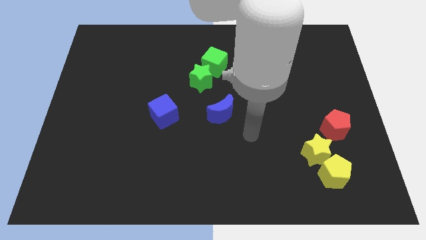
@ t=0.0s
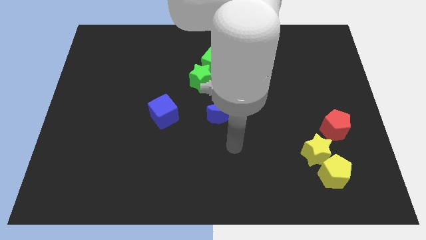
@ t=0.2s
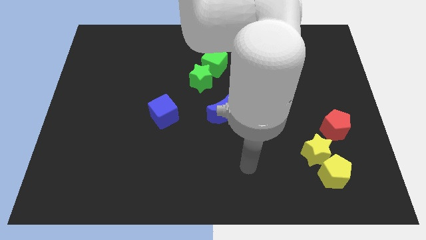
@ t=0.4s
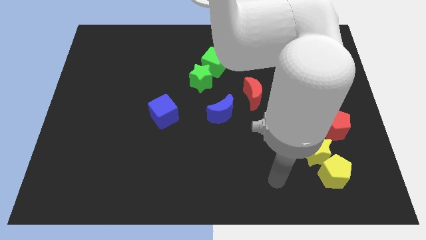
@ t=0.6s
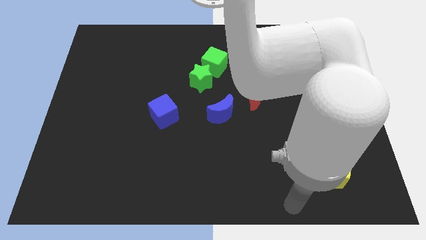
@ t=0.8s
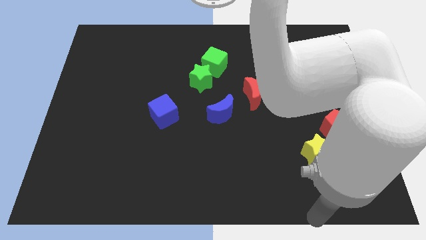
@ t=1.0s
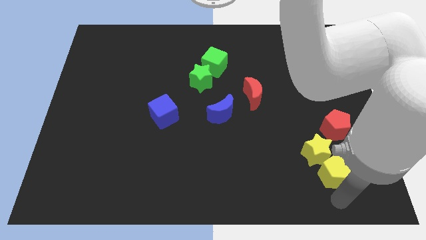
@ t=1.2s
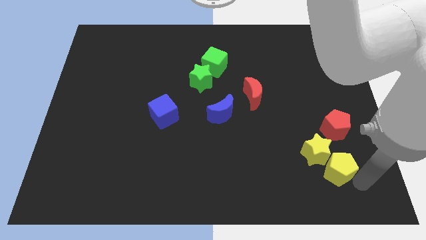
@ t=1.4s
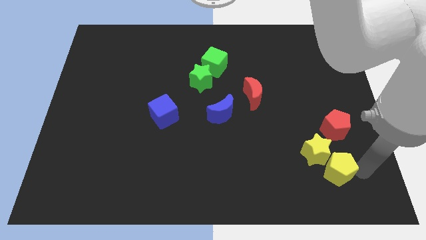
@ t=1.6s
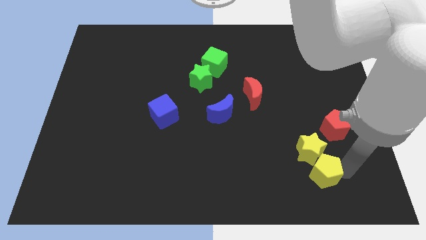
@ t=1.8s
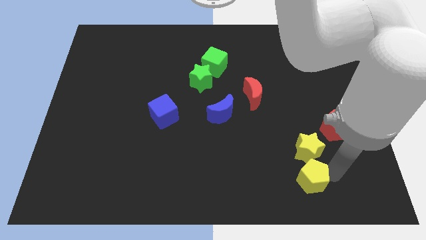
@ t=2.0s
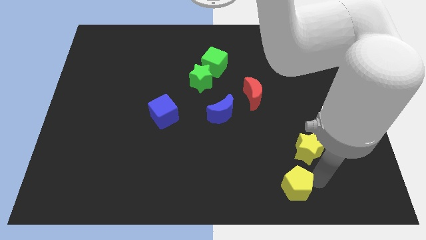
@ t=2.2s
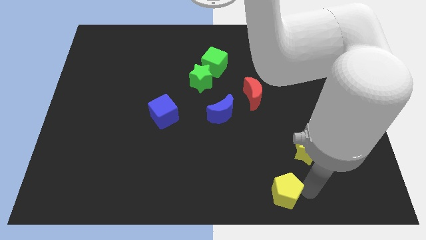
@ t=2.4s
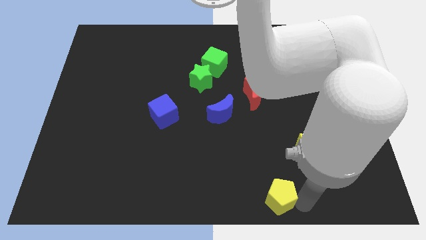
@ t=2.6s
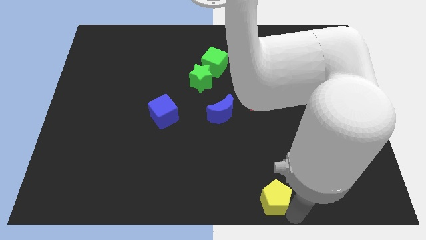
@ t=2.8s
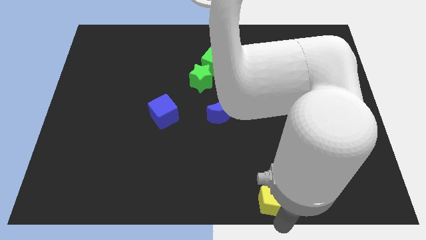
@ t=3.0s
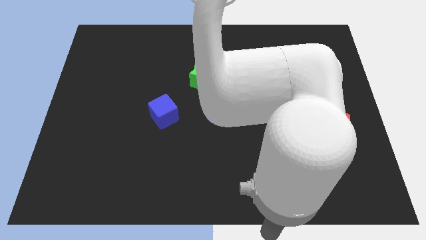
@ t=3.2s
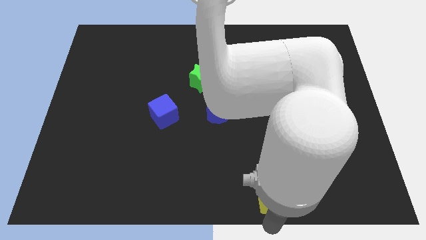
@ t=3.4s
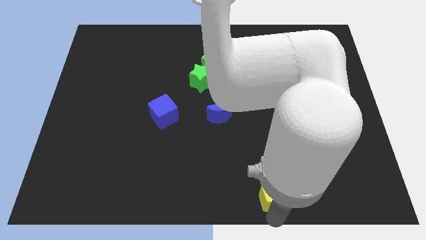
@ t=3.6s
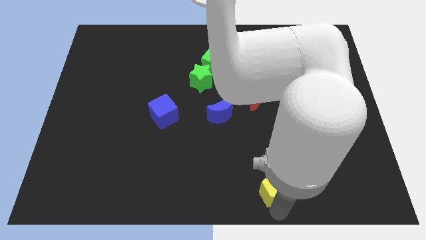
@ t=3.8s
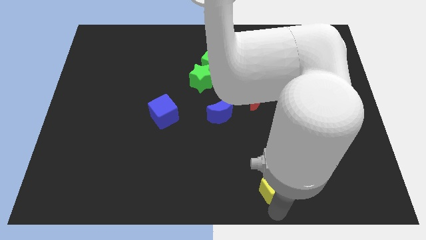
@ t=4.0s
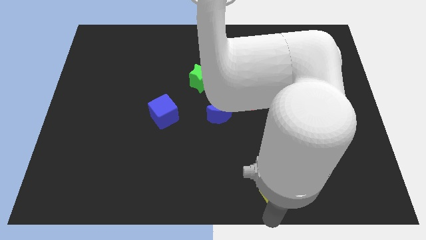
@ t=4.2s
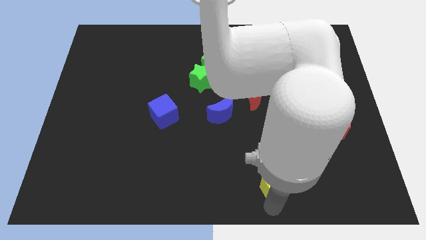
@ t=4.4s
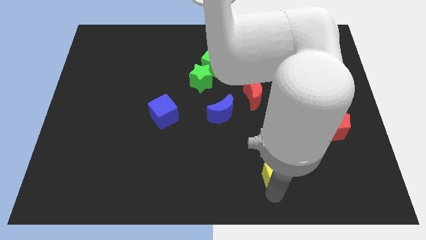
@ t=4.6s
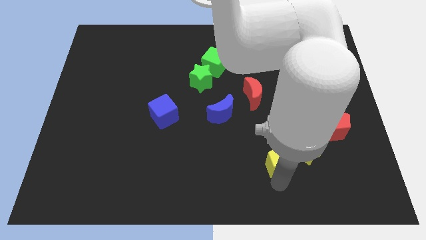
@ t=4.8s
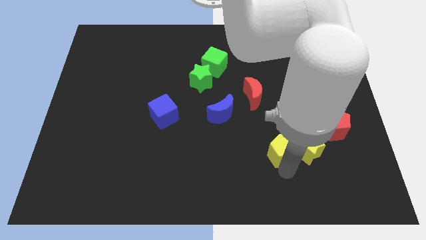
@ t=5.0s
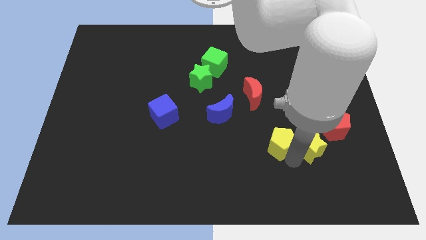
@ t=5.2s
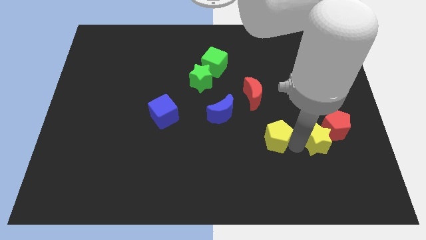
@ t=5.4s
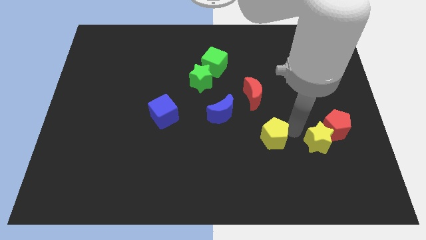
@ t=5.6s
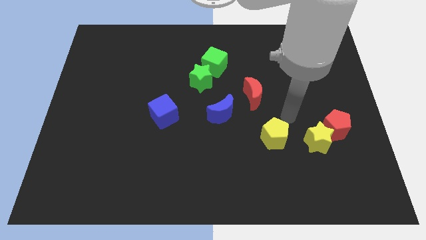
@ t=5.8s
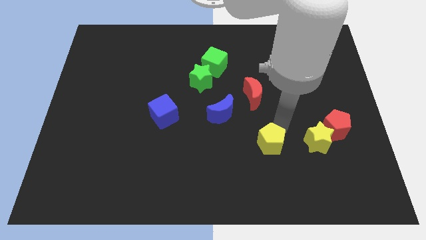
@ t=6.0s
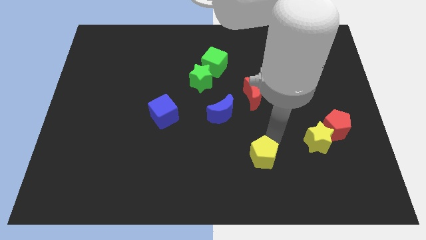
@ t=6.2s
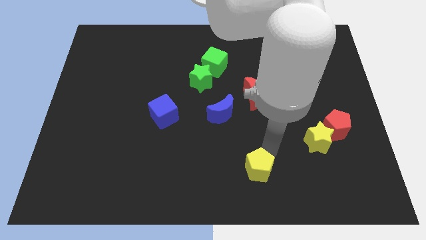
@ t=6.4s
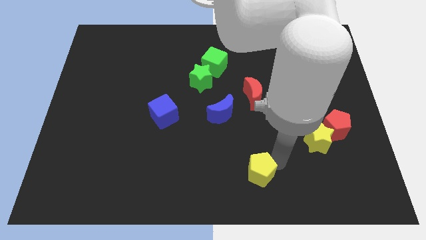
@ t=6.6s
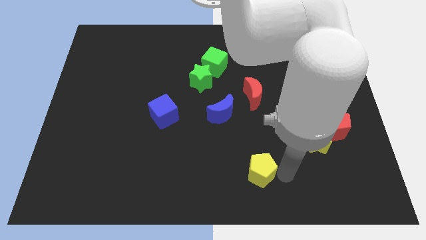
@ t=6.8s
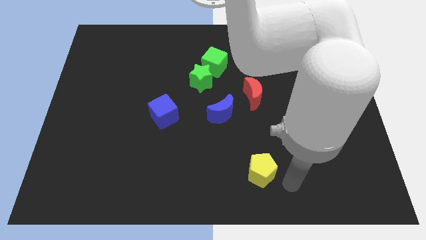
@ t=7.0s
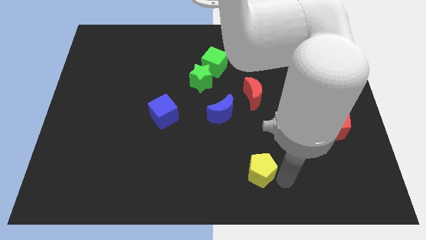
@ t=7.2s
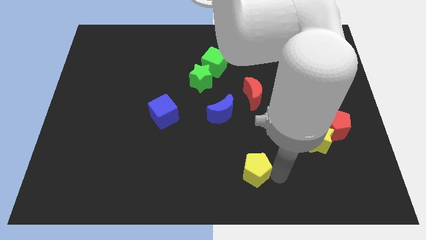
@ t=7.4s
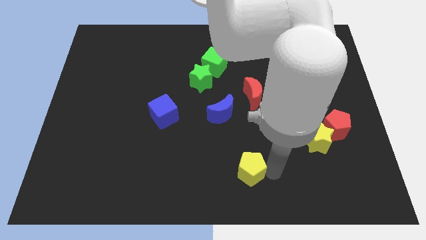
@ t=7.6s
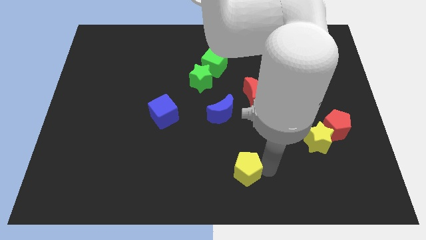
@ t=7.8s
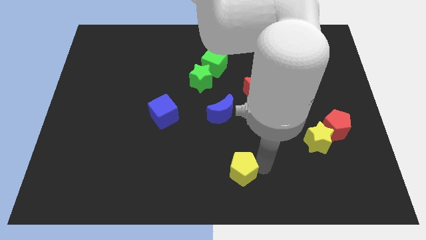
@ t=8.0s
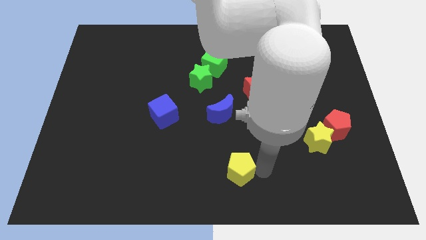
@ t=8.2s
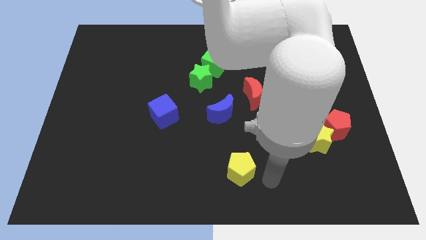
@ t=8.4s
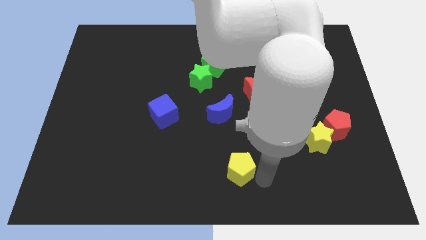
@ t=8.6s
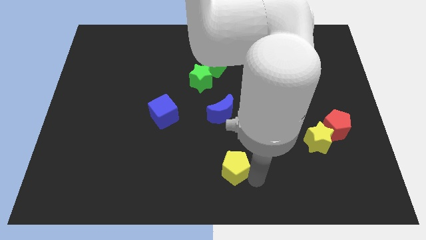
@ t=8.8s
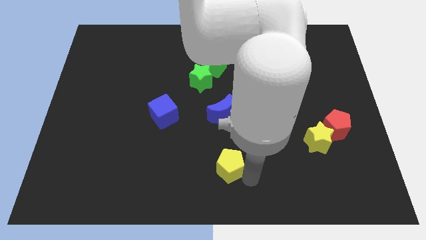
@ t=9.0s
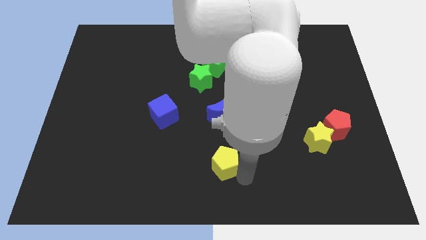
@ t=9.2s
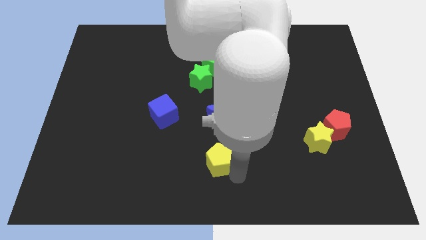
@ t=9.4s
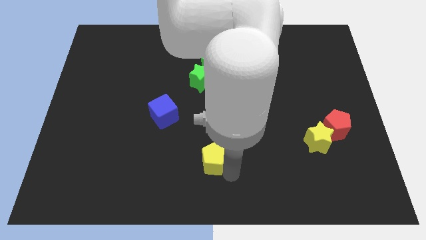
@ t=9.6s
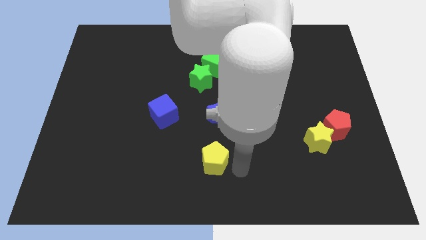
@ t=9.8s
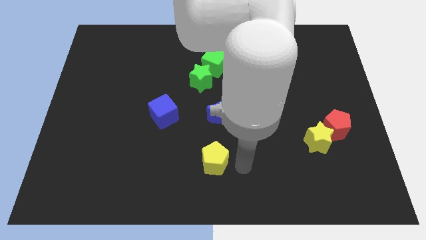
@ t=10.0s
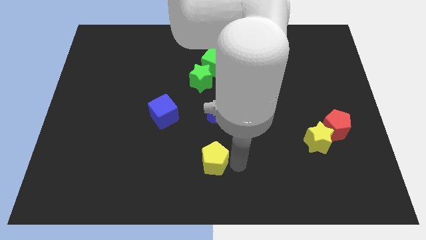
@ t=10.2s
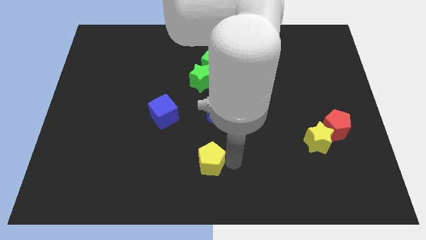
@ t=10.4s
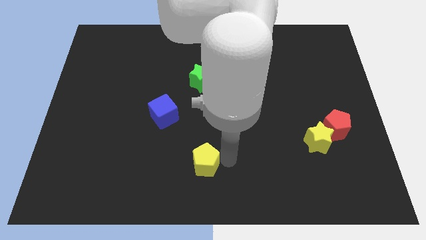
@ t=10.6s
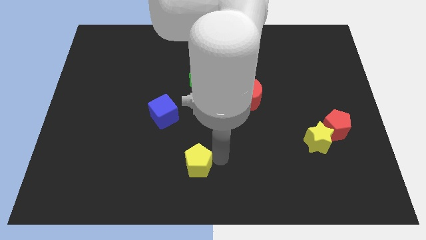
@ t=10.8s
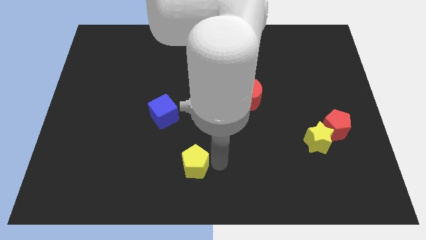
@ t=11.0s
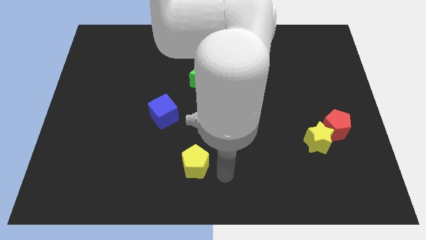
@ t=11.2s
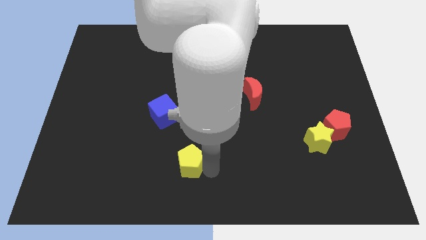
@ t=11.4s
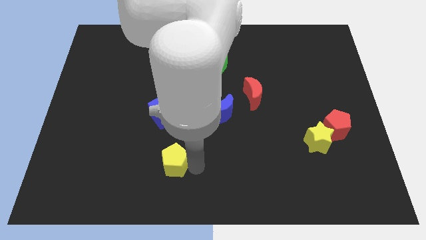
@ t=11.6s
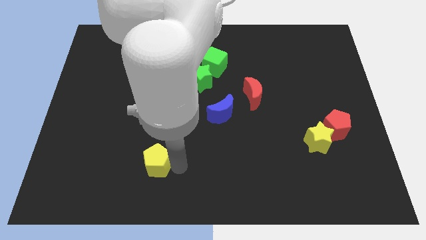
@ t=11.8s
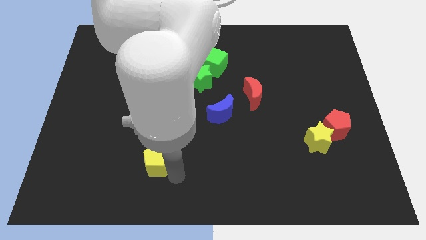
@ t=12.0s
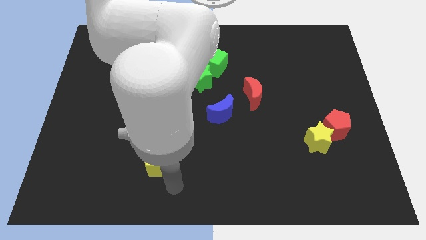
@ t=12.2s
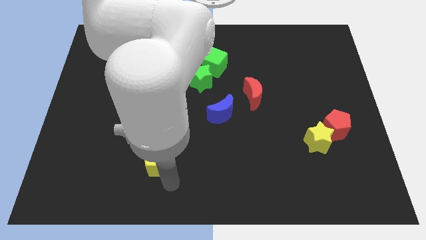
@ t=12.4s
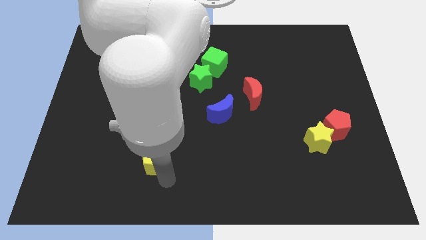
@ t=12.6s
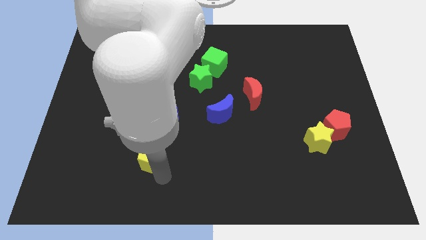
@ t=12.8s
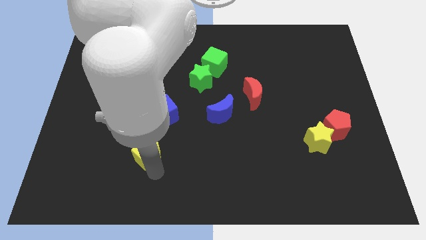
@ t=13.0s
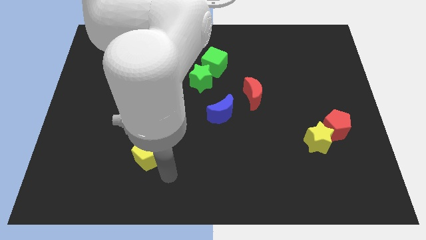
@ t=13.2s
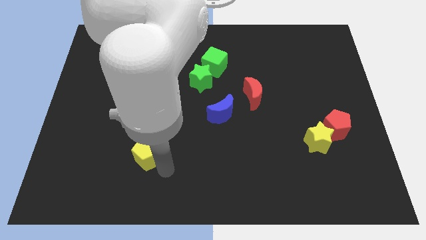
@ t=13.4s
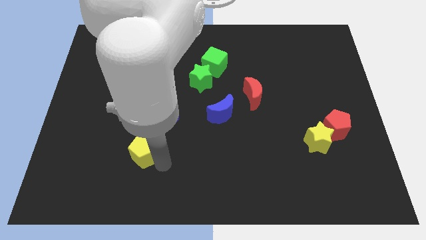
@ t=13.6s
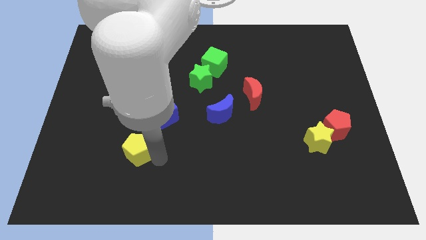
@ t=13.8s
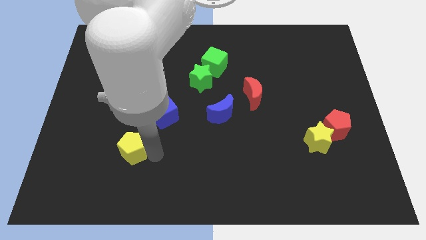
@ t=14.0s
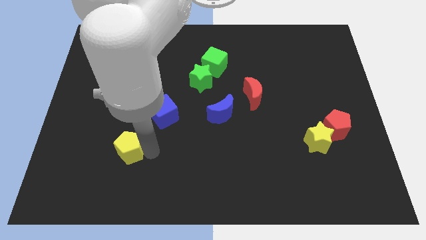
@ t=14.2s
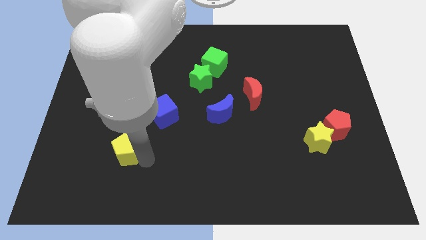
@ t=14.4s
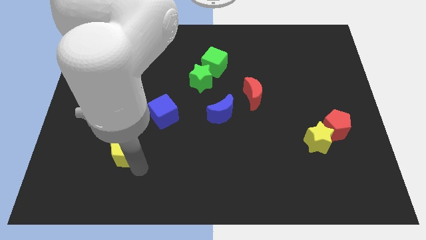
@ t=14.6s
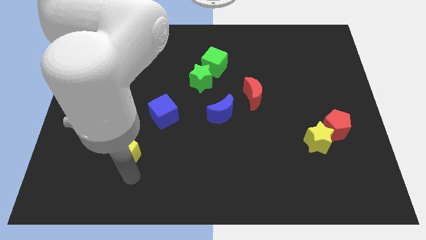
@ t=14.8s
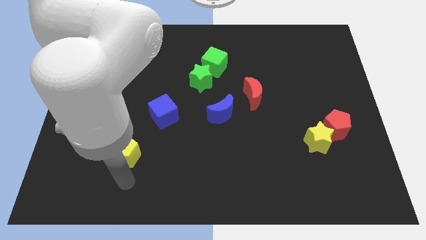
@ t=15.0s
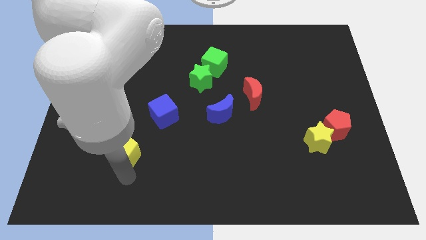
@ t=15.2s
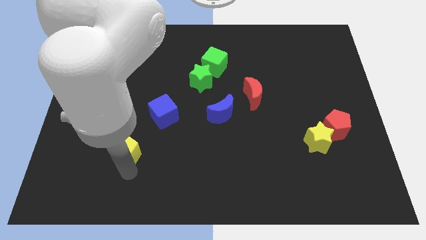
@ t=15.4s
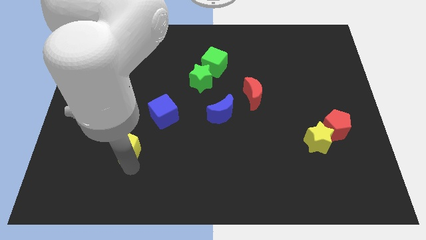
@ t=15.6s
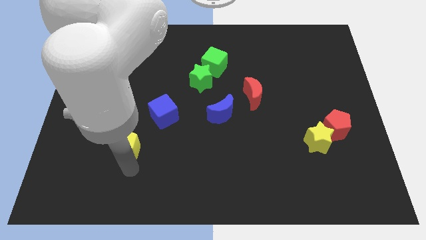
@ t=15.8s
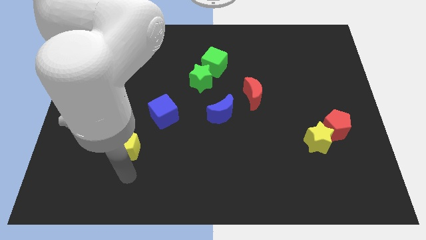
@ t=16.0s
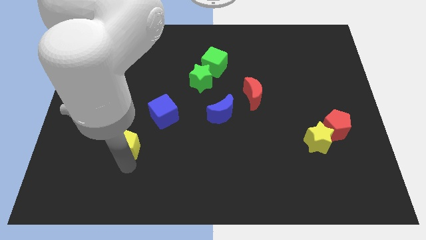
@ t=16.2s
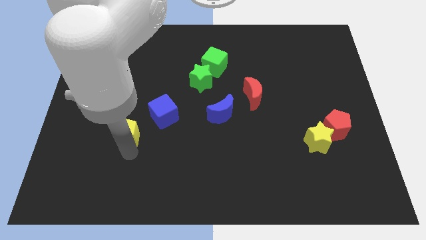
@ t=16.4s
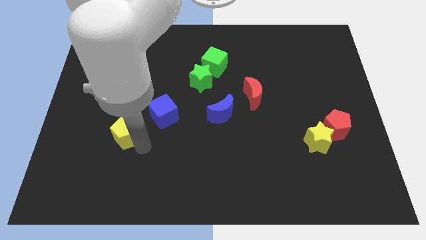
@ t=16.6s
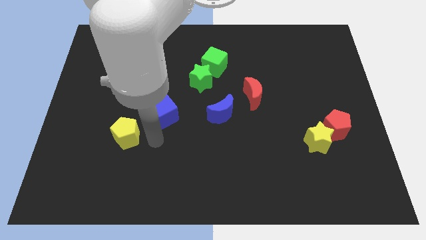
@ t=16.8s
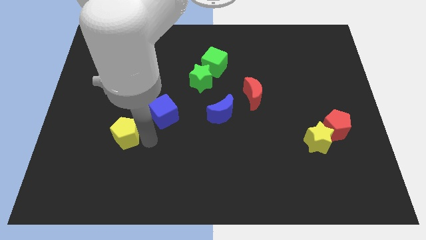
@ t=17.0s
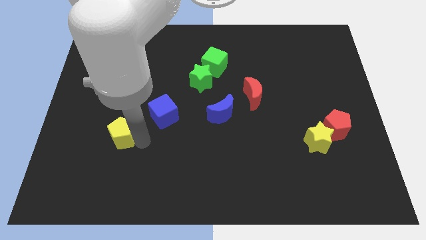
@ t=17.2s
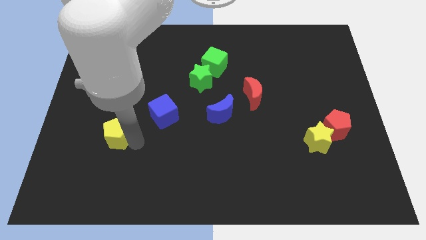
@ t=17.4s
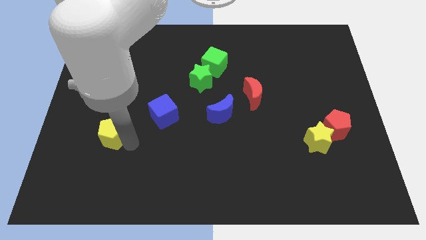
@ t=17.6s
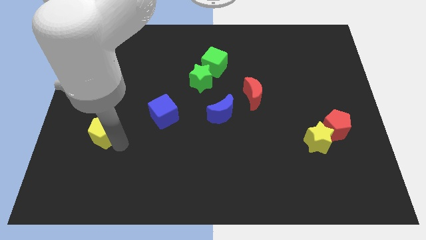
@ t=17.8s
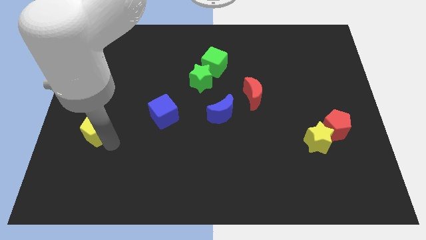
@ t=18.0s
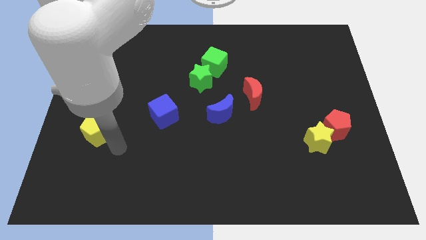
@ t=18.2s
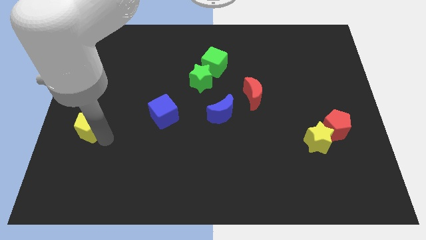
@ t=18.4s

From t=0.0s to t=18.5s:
move the yellow pentagon to the left side of the board
